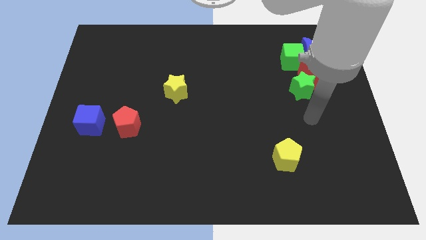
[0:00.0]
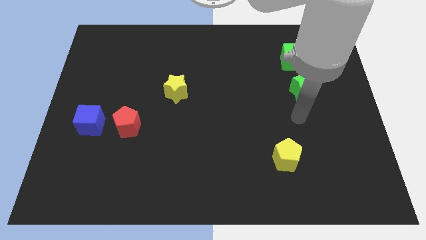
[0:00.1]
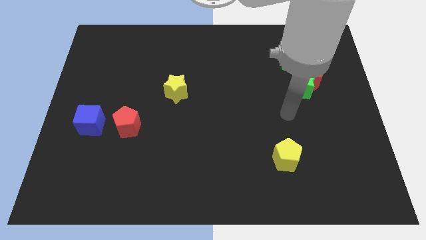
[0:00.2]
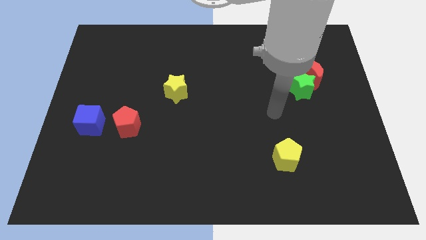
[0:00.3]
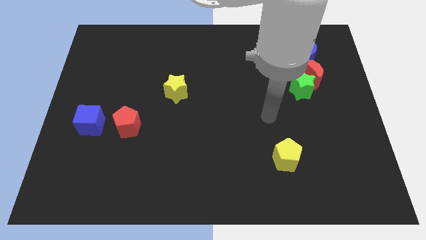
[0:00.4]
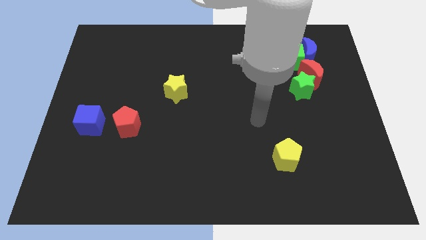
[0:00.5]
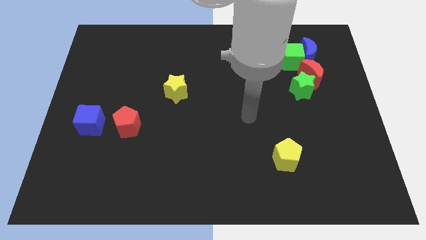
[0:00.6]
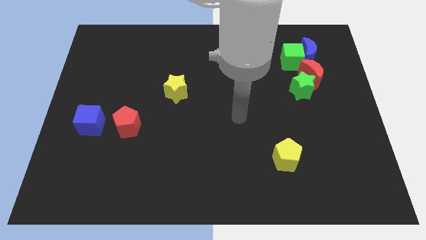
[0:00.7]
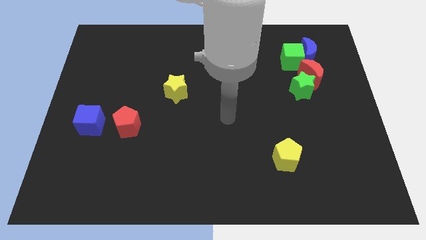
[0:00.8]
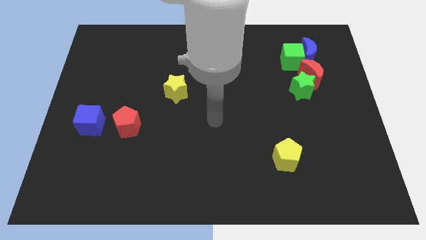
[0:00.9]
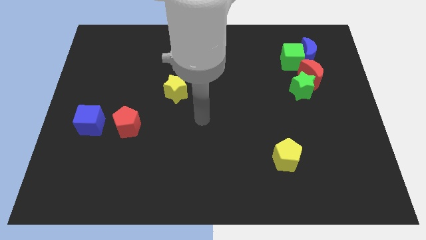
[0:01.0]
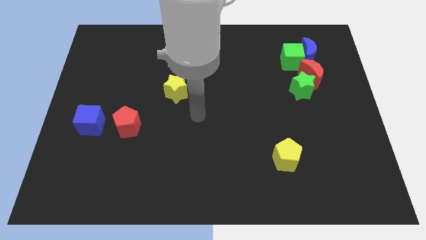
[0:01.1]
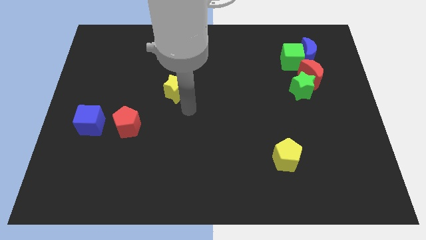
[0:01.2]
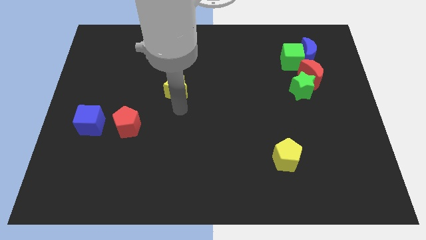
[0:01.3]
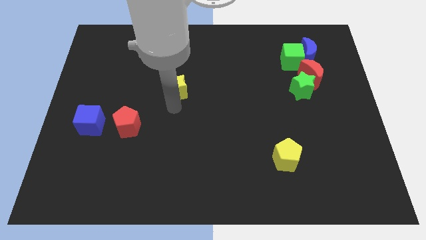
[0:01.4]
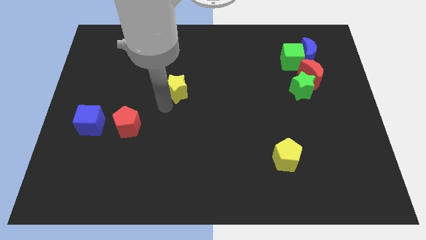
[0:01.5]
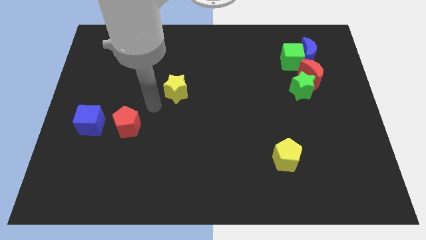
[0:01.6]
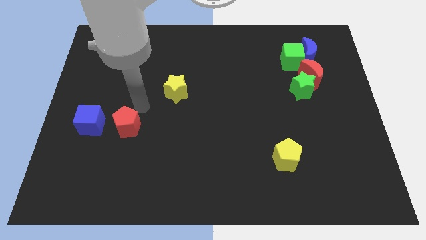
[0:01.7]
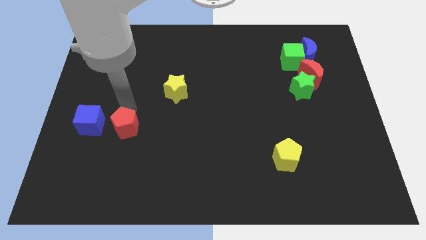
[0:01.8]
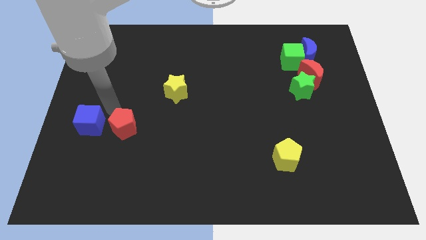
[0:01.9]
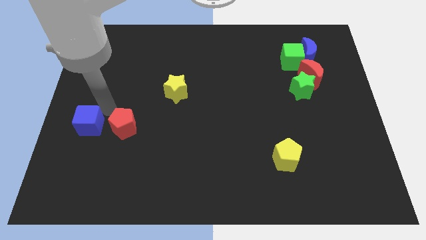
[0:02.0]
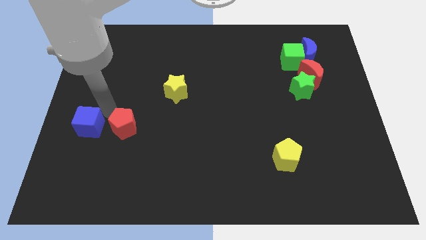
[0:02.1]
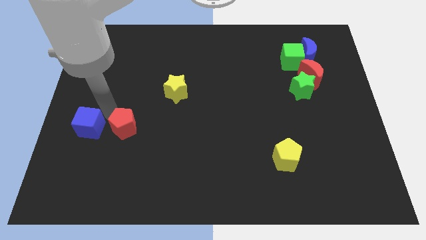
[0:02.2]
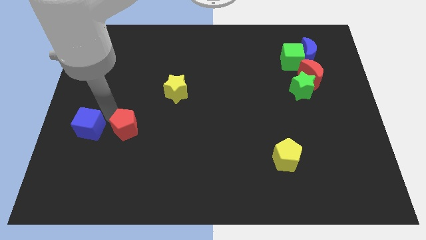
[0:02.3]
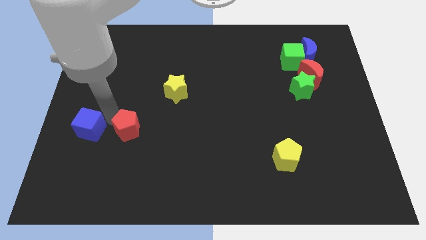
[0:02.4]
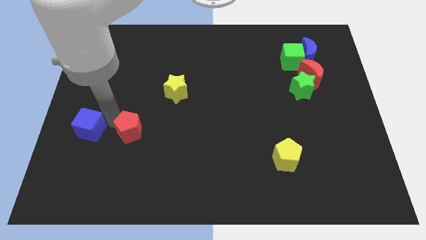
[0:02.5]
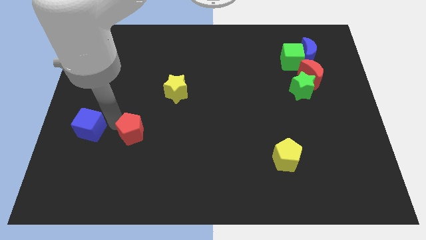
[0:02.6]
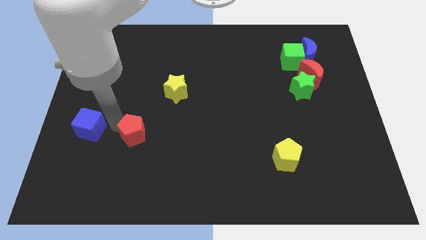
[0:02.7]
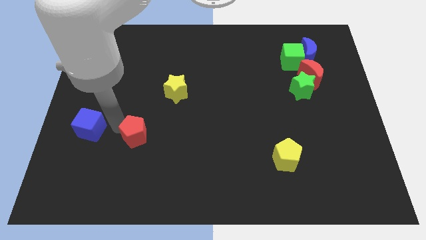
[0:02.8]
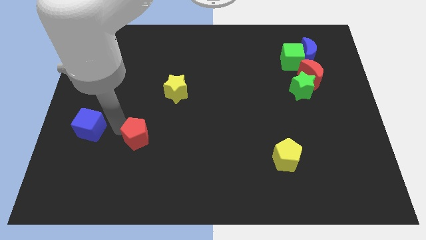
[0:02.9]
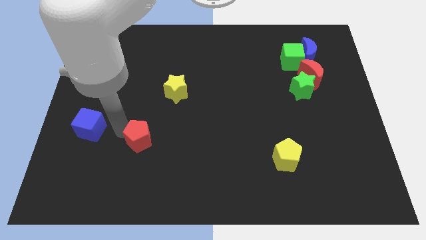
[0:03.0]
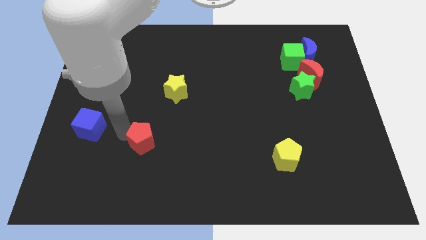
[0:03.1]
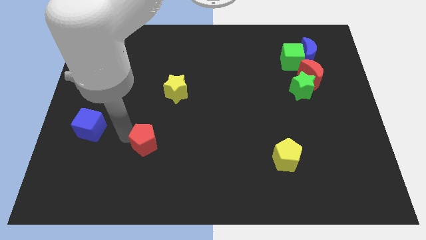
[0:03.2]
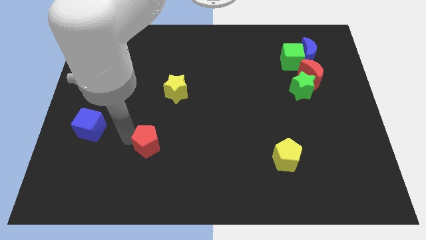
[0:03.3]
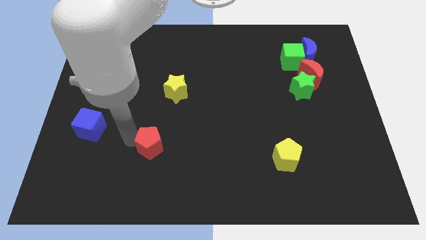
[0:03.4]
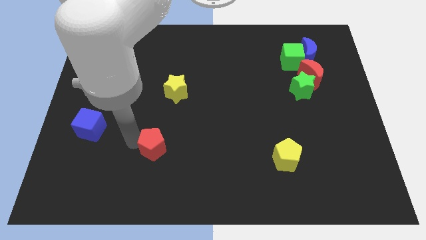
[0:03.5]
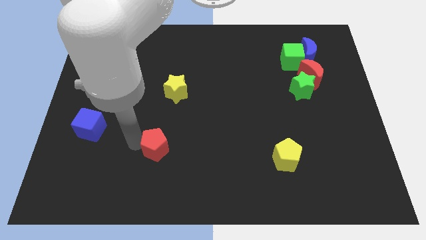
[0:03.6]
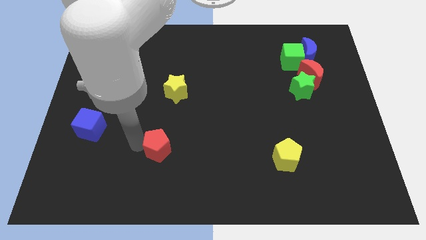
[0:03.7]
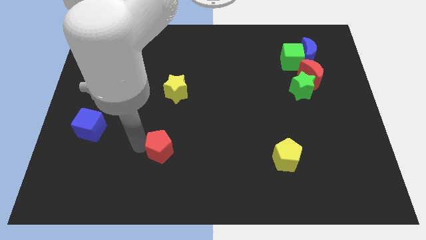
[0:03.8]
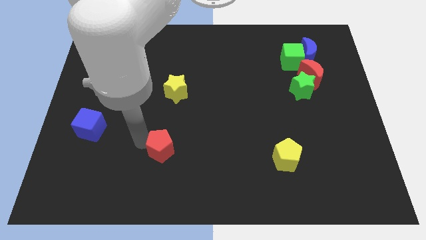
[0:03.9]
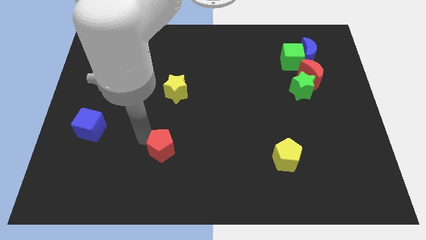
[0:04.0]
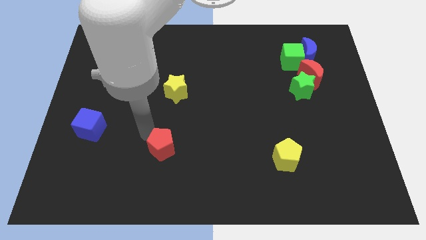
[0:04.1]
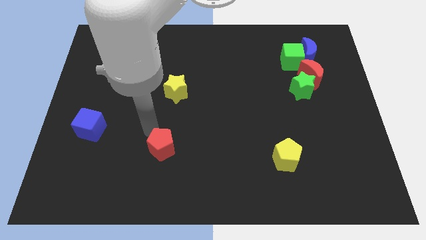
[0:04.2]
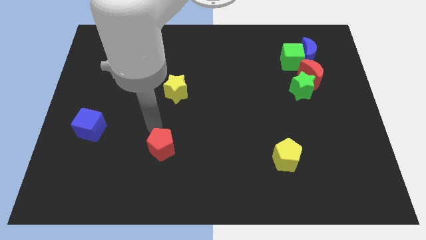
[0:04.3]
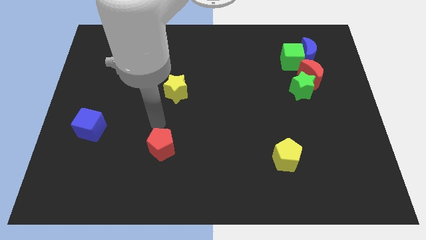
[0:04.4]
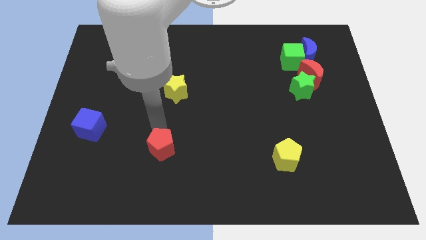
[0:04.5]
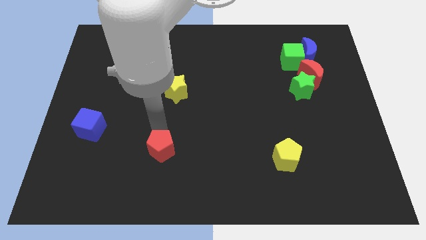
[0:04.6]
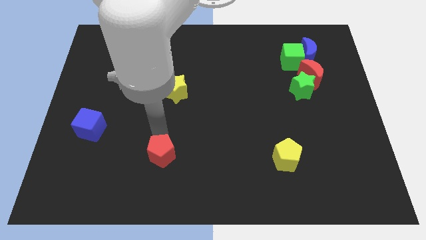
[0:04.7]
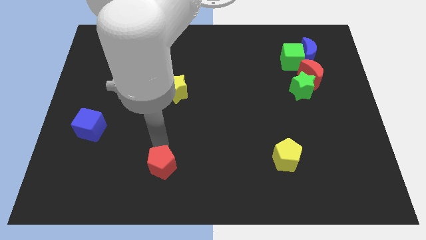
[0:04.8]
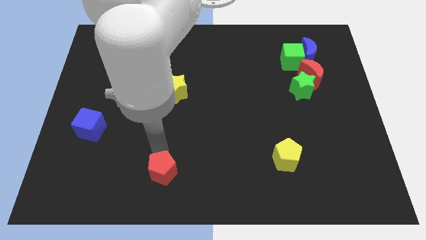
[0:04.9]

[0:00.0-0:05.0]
put the red pentagon to the bottom

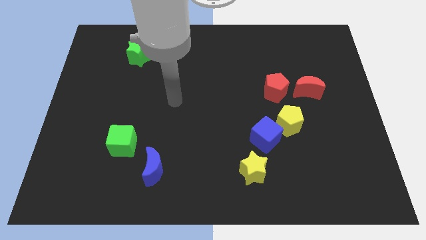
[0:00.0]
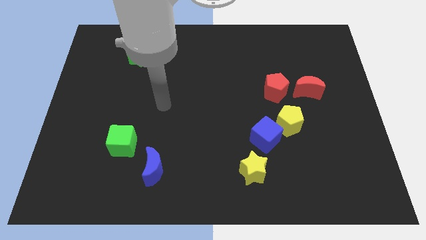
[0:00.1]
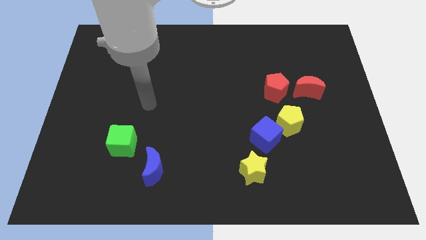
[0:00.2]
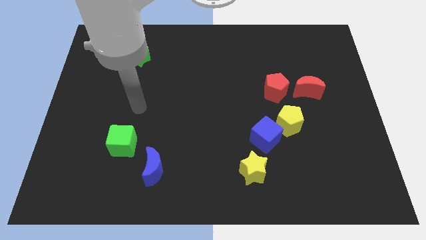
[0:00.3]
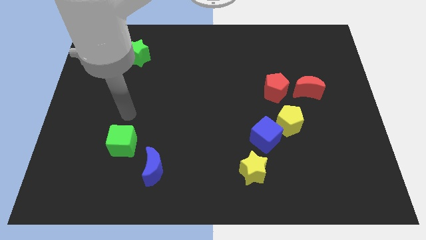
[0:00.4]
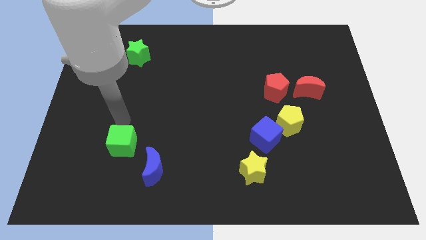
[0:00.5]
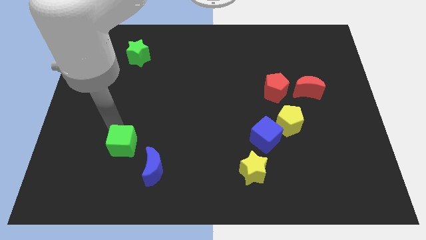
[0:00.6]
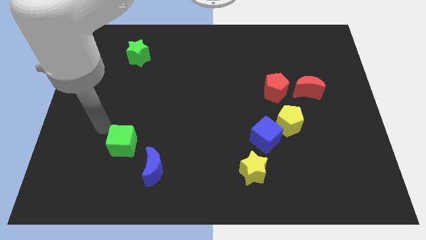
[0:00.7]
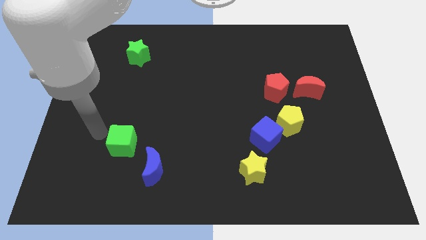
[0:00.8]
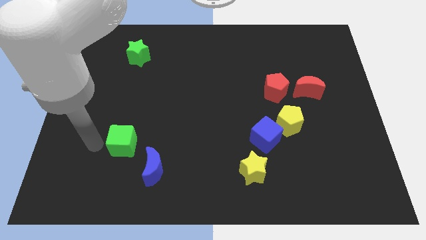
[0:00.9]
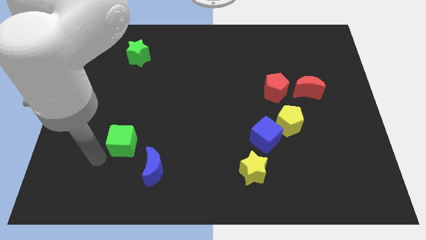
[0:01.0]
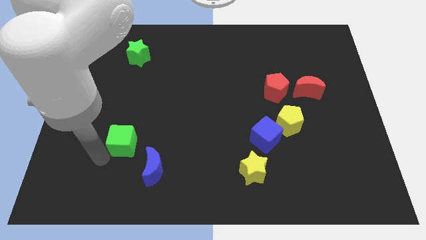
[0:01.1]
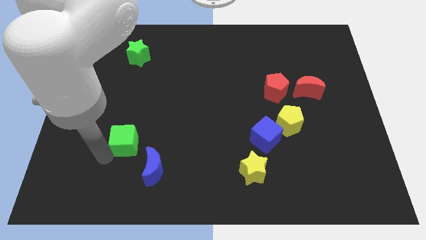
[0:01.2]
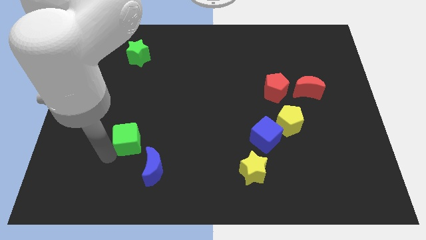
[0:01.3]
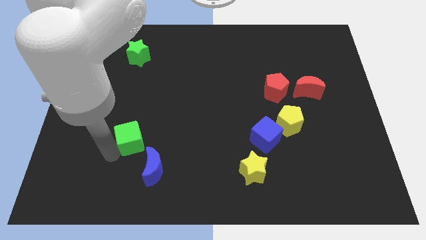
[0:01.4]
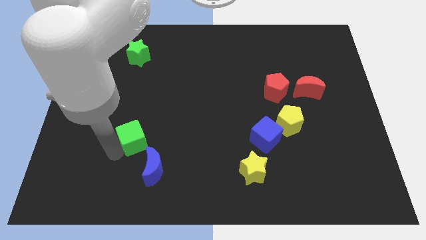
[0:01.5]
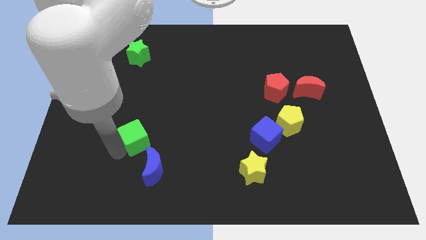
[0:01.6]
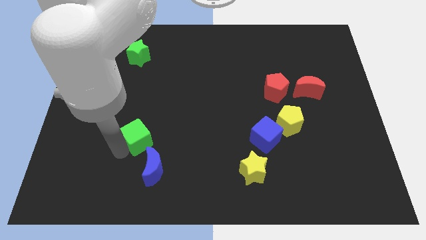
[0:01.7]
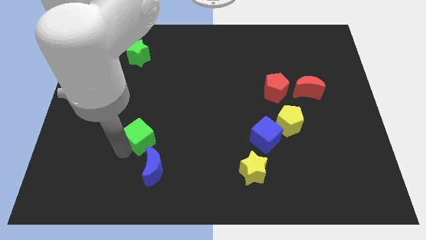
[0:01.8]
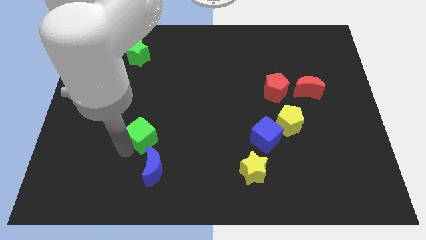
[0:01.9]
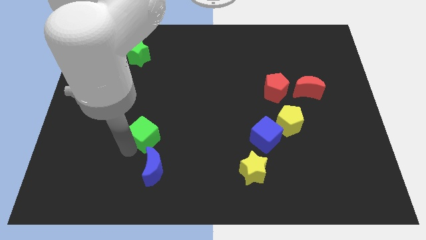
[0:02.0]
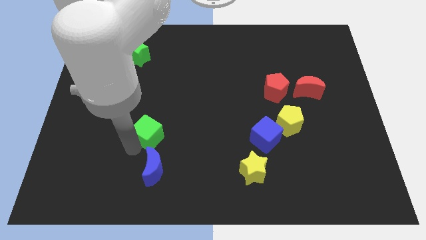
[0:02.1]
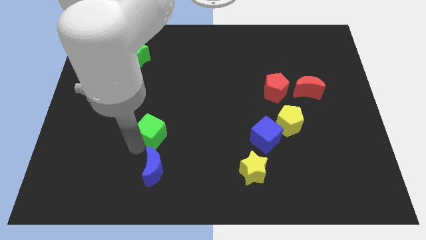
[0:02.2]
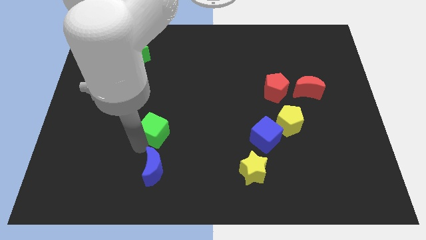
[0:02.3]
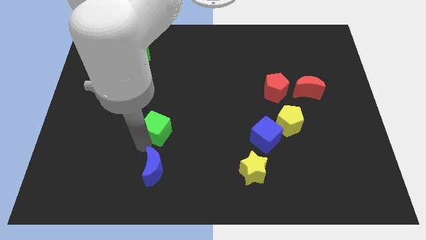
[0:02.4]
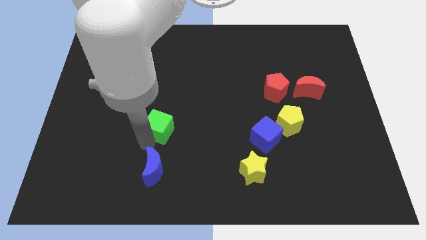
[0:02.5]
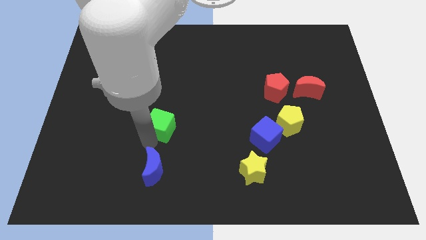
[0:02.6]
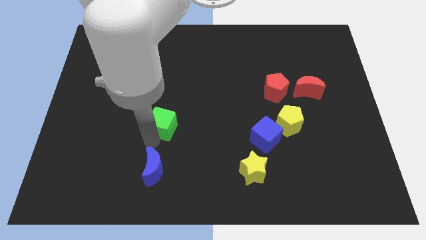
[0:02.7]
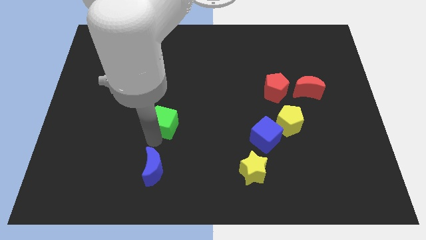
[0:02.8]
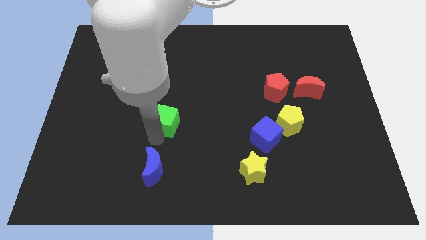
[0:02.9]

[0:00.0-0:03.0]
move the green cube to the center
